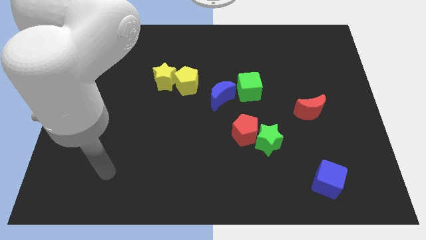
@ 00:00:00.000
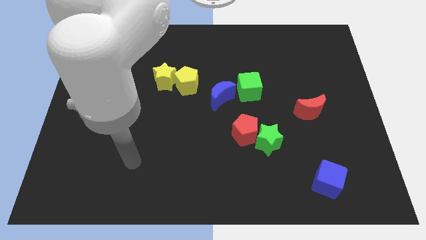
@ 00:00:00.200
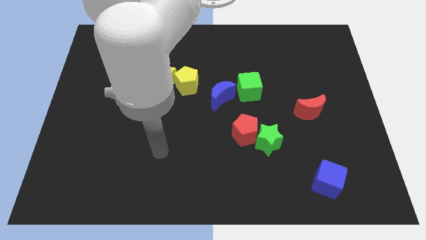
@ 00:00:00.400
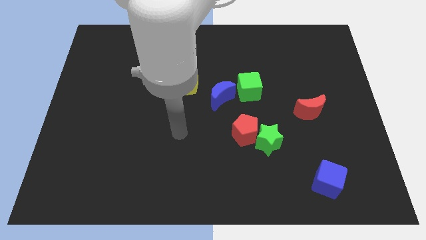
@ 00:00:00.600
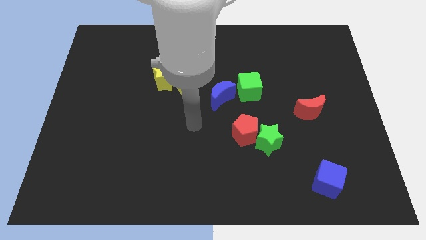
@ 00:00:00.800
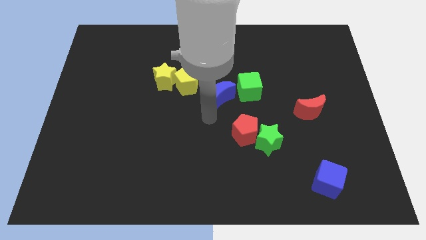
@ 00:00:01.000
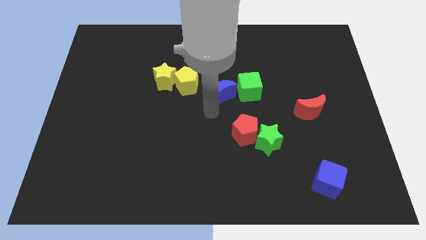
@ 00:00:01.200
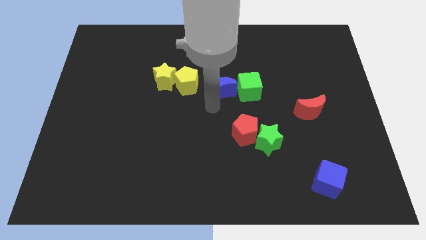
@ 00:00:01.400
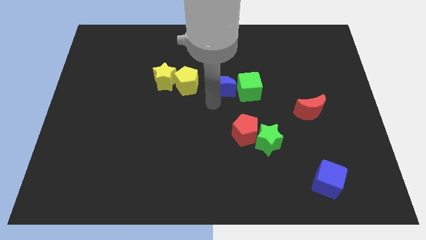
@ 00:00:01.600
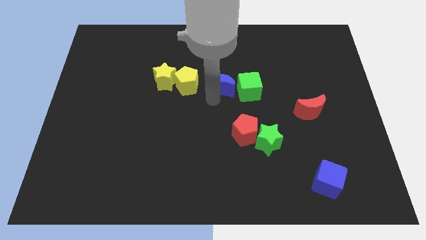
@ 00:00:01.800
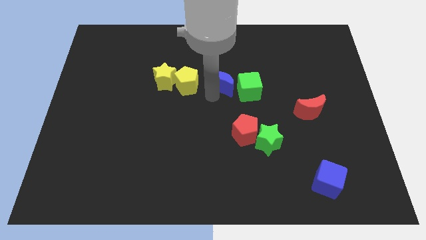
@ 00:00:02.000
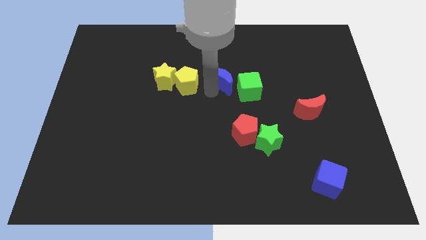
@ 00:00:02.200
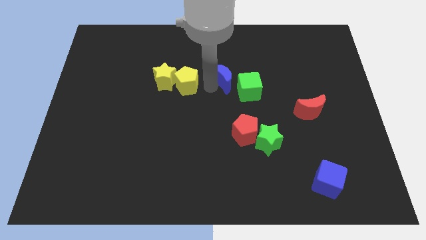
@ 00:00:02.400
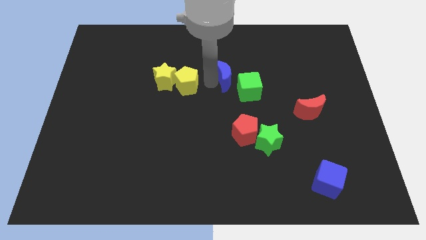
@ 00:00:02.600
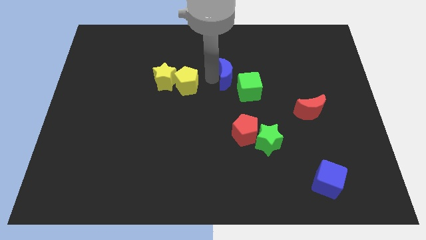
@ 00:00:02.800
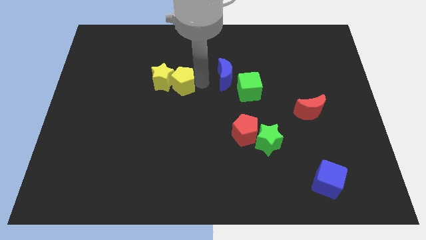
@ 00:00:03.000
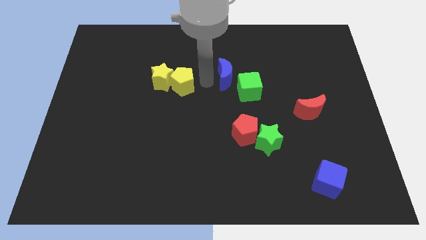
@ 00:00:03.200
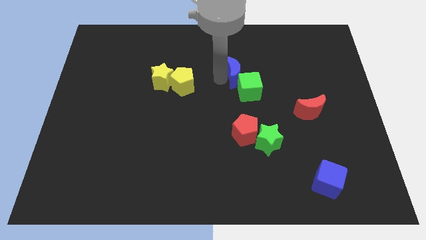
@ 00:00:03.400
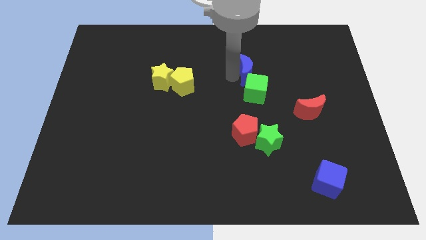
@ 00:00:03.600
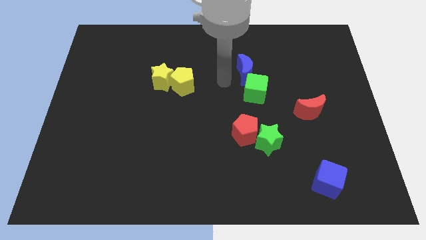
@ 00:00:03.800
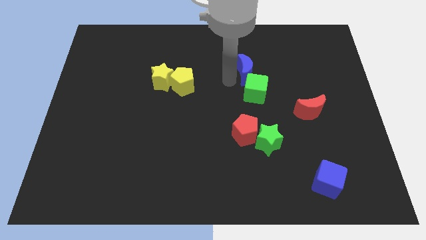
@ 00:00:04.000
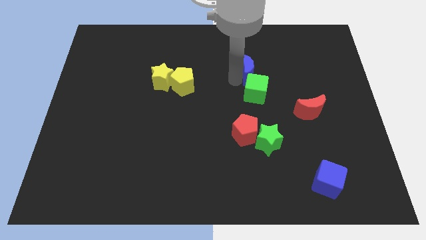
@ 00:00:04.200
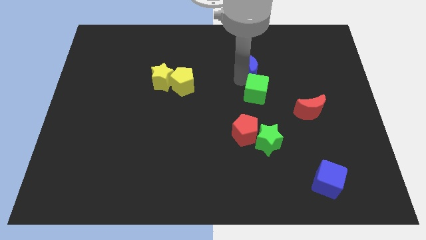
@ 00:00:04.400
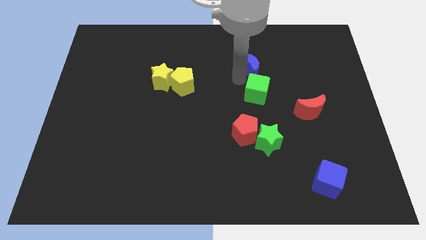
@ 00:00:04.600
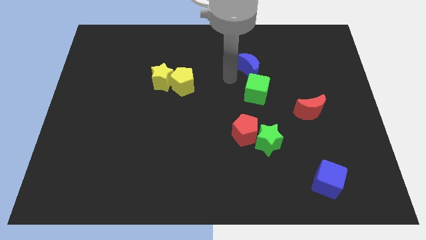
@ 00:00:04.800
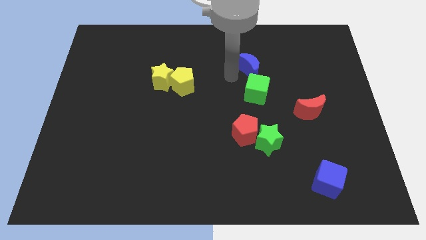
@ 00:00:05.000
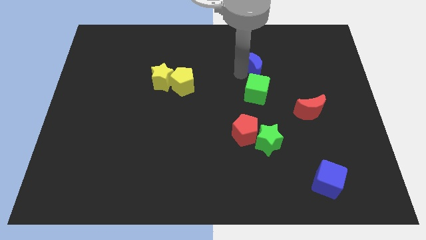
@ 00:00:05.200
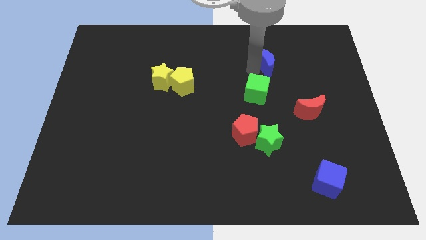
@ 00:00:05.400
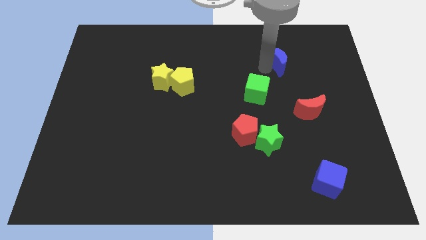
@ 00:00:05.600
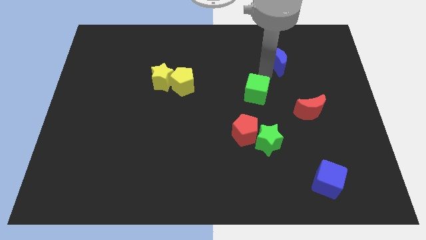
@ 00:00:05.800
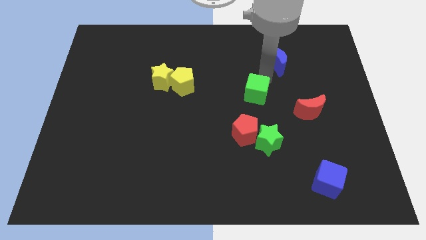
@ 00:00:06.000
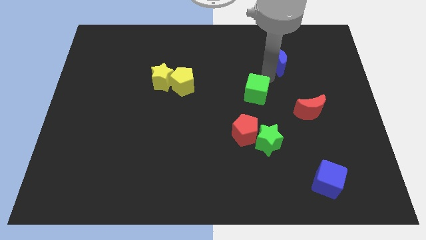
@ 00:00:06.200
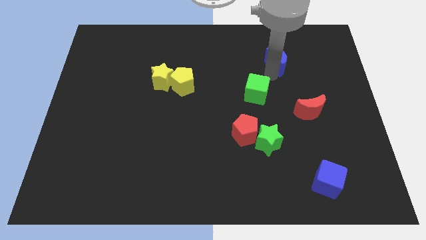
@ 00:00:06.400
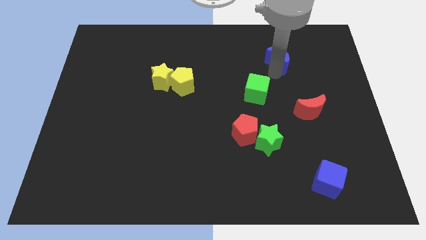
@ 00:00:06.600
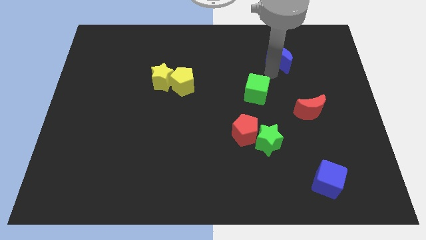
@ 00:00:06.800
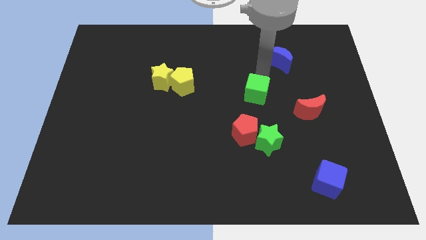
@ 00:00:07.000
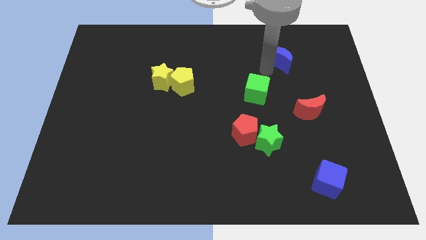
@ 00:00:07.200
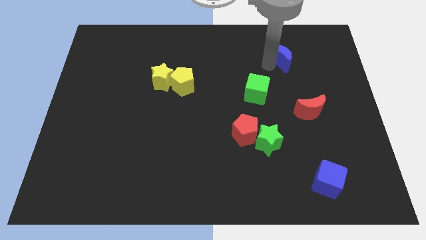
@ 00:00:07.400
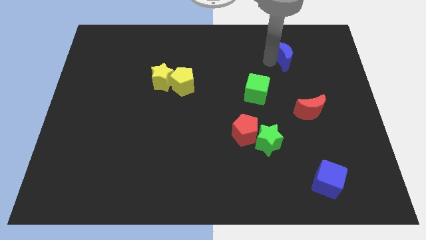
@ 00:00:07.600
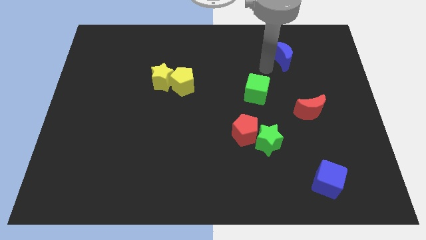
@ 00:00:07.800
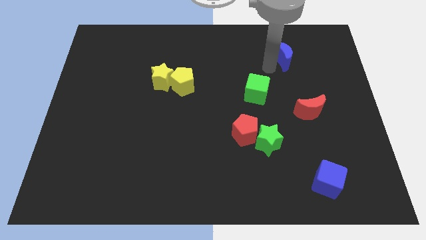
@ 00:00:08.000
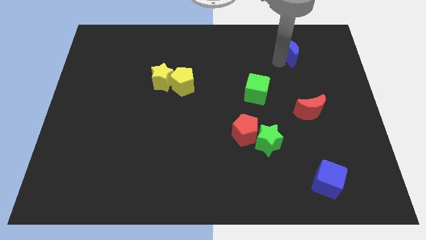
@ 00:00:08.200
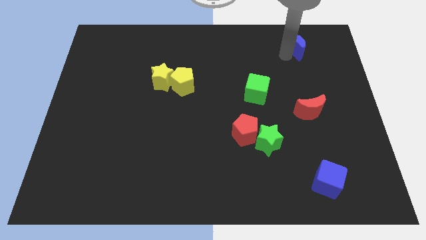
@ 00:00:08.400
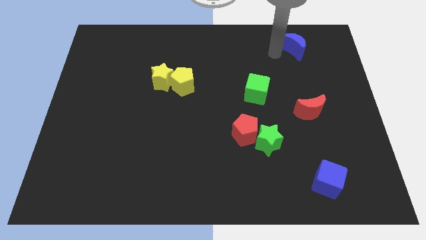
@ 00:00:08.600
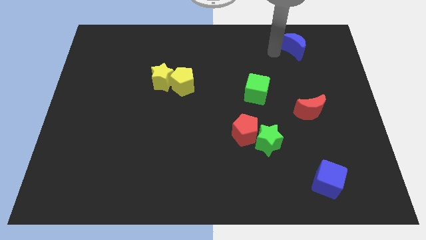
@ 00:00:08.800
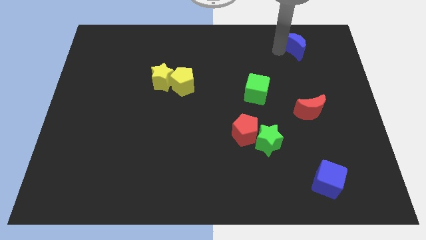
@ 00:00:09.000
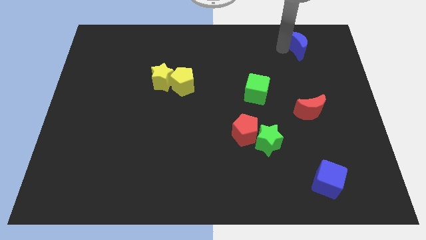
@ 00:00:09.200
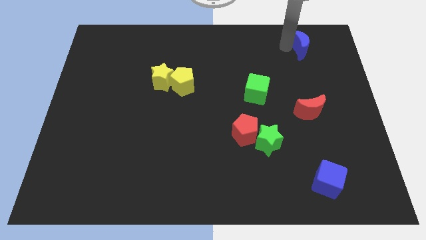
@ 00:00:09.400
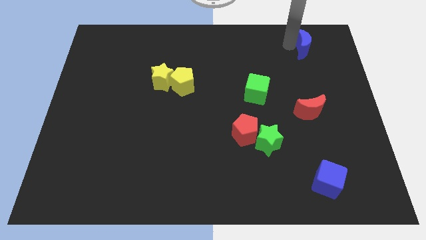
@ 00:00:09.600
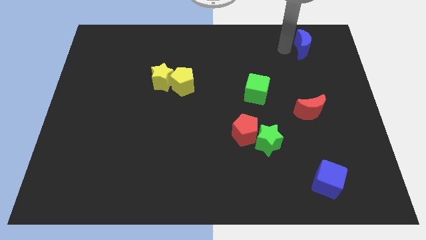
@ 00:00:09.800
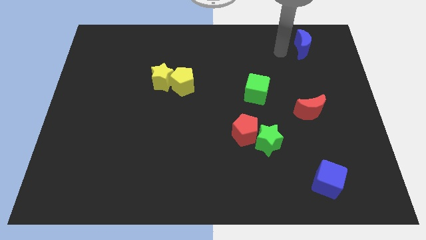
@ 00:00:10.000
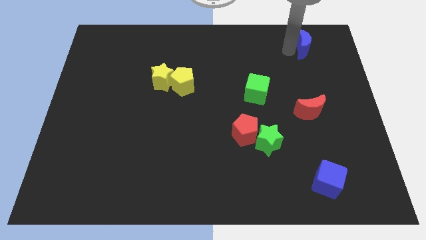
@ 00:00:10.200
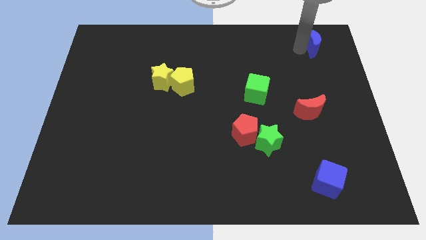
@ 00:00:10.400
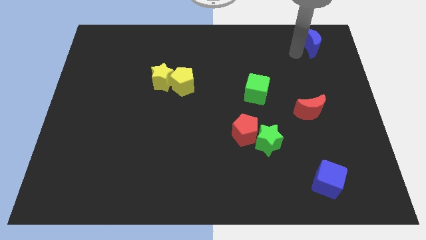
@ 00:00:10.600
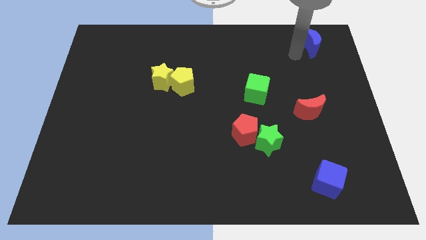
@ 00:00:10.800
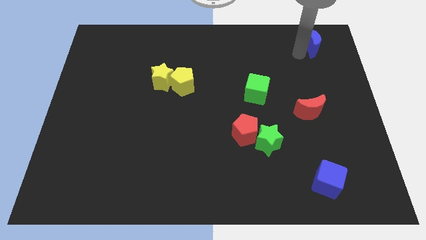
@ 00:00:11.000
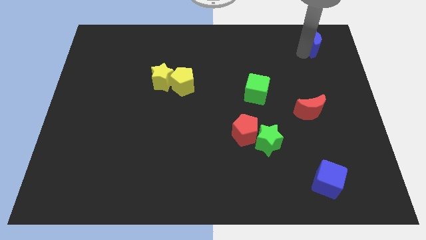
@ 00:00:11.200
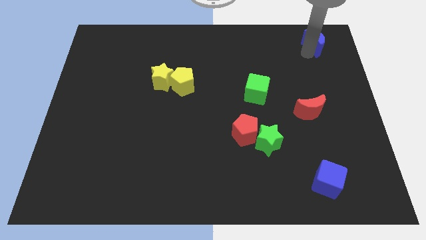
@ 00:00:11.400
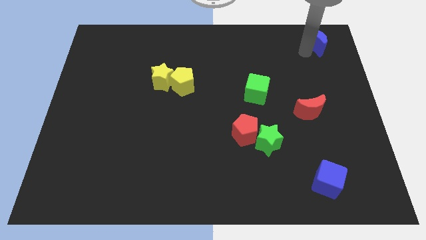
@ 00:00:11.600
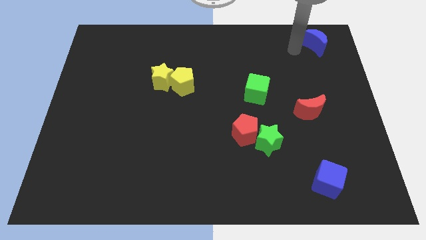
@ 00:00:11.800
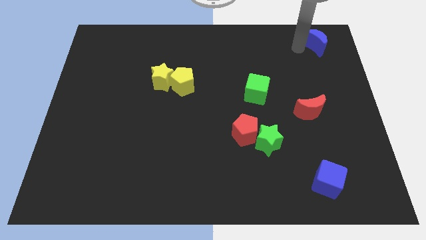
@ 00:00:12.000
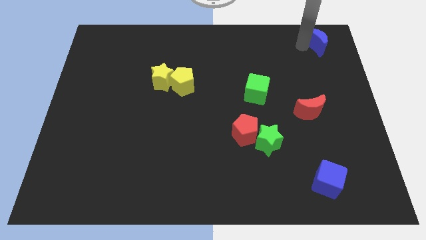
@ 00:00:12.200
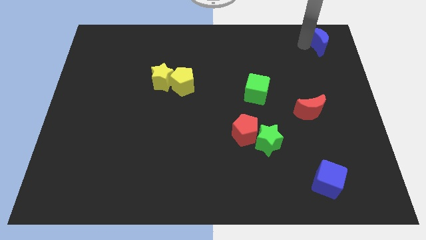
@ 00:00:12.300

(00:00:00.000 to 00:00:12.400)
move the blue moon to the top right corner
